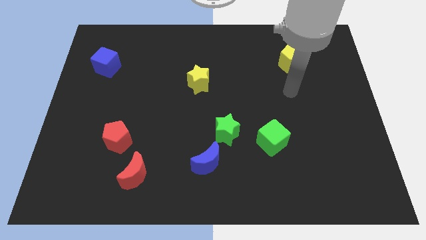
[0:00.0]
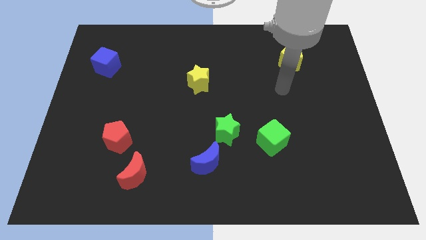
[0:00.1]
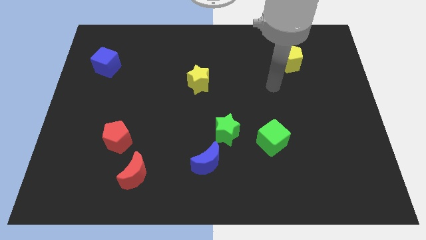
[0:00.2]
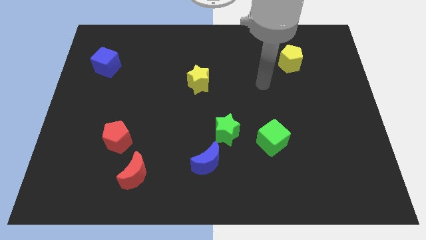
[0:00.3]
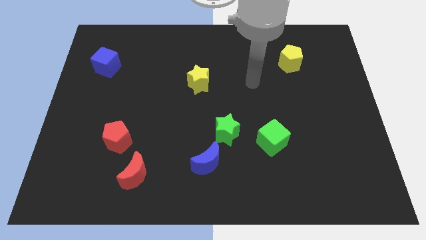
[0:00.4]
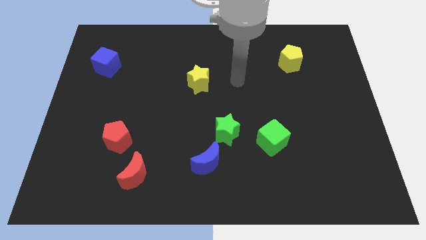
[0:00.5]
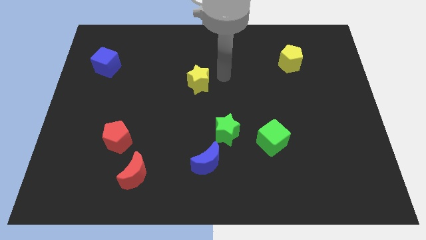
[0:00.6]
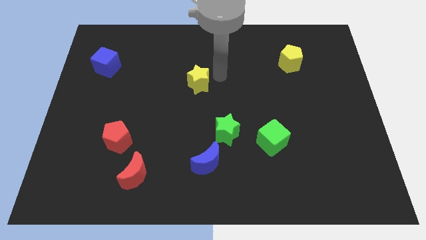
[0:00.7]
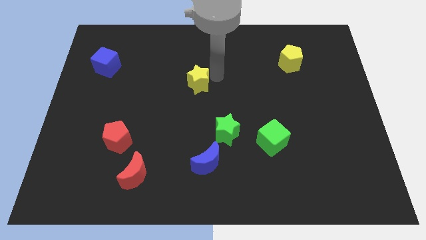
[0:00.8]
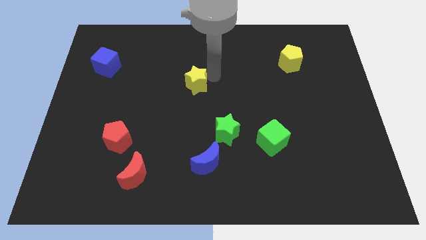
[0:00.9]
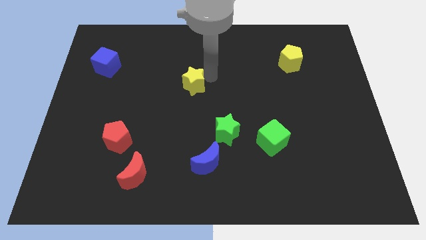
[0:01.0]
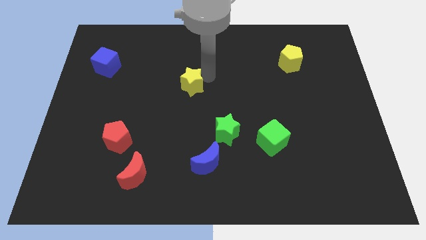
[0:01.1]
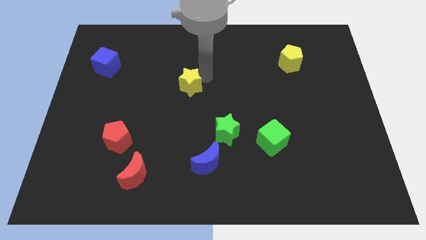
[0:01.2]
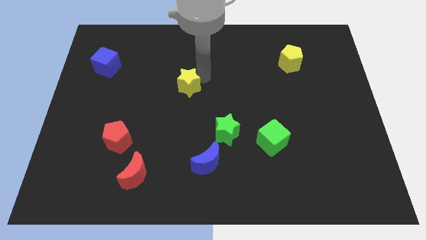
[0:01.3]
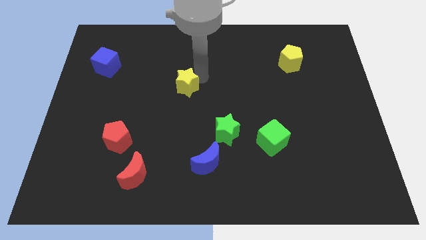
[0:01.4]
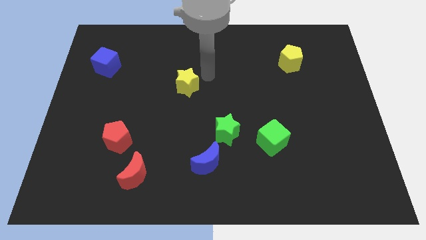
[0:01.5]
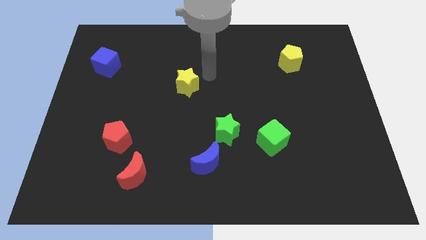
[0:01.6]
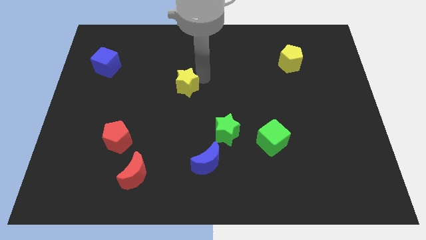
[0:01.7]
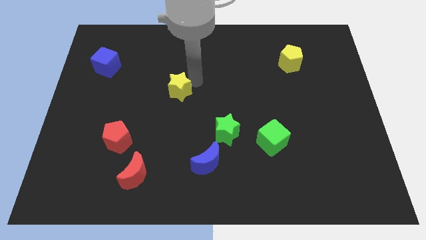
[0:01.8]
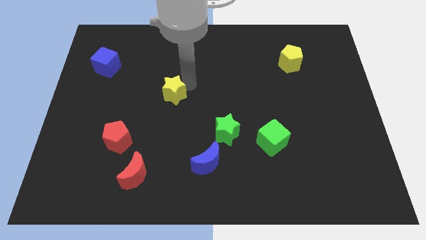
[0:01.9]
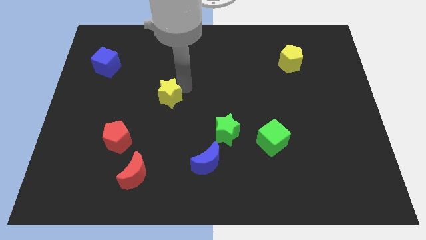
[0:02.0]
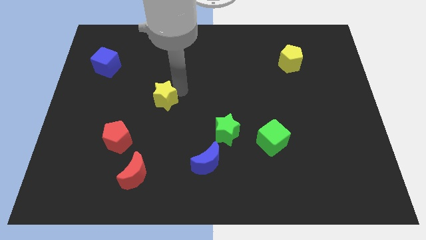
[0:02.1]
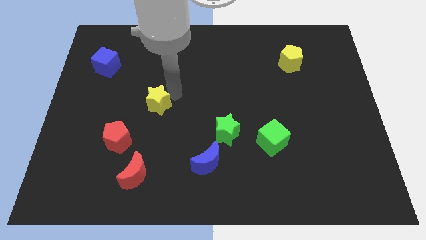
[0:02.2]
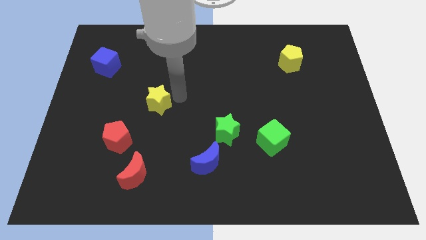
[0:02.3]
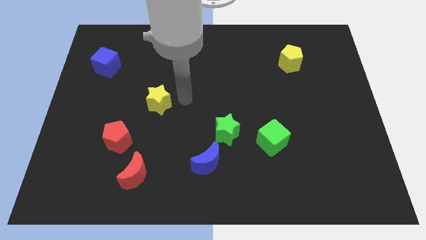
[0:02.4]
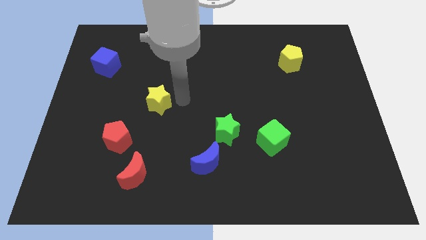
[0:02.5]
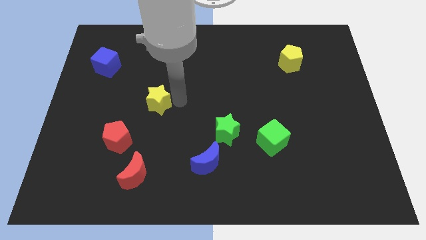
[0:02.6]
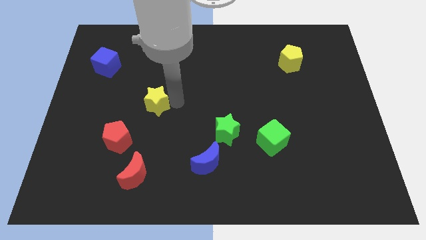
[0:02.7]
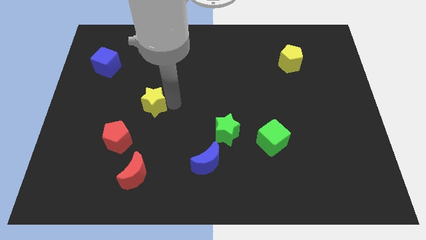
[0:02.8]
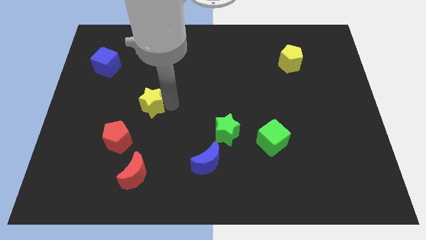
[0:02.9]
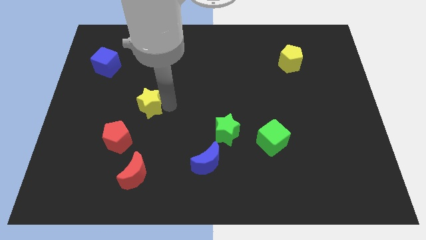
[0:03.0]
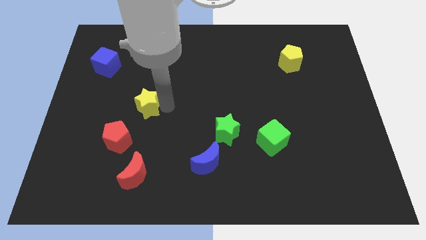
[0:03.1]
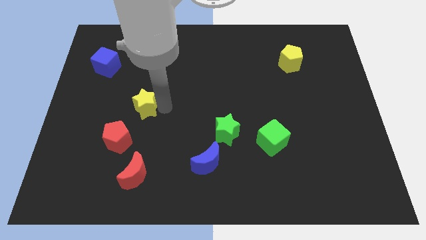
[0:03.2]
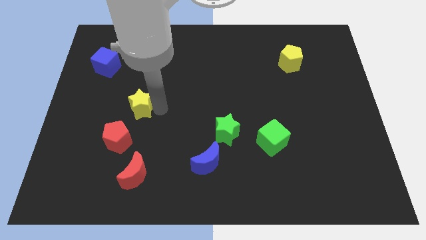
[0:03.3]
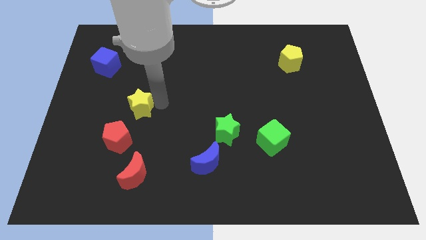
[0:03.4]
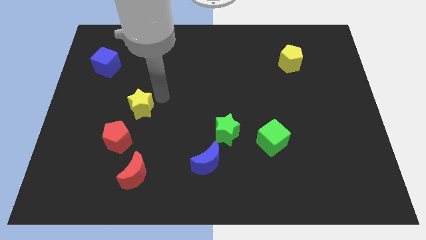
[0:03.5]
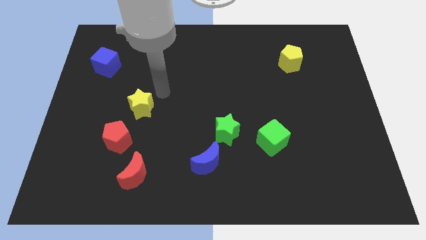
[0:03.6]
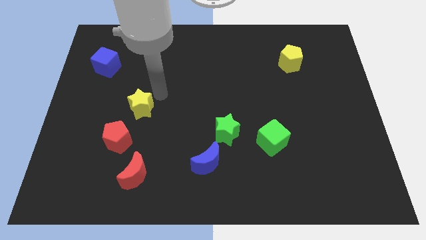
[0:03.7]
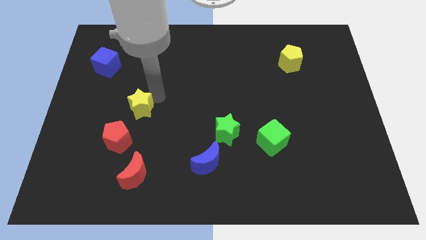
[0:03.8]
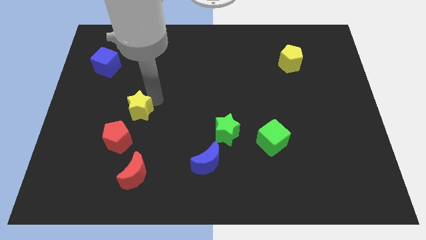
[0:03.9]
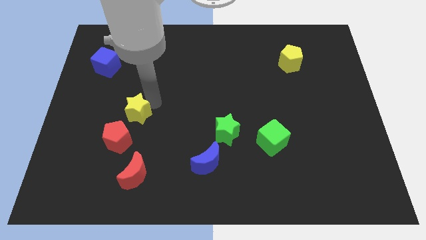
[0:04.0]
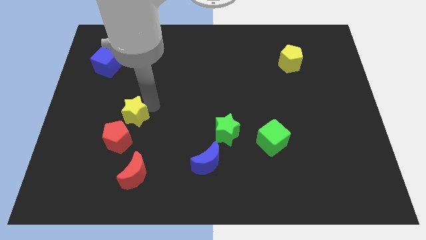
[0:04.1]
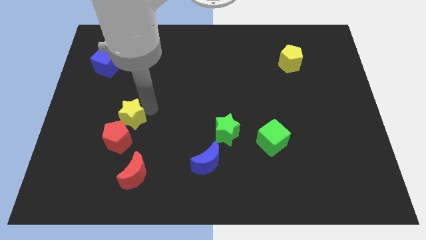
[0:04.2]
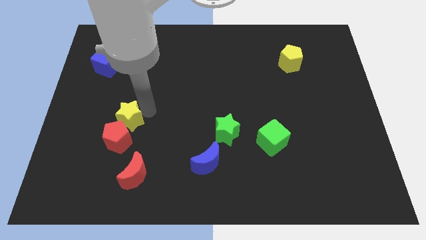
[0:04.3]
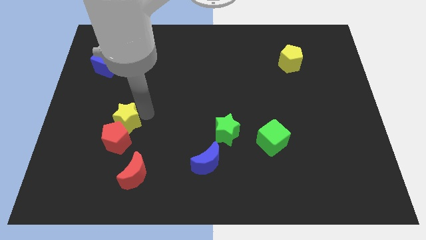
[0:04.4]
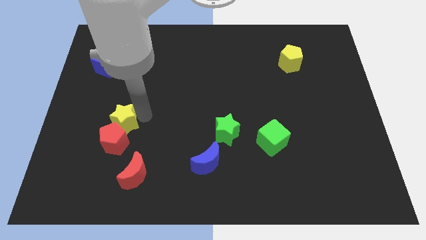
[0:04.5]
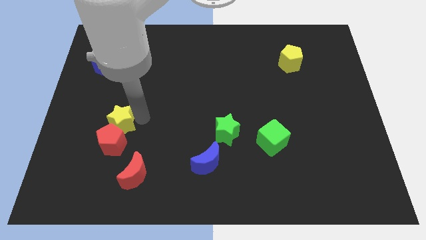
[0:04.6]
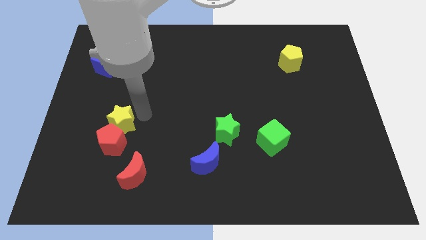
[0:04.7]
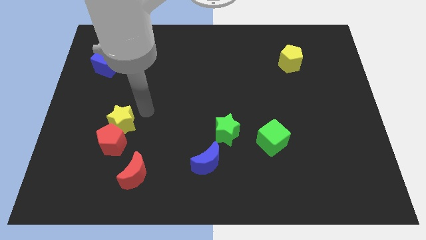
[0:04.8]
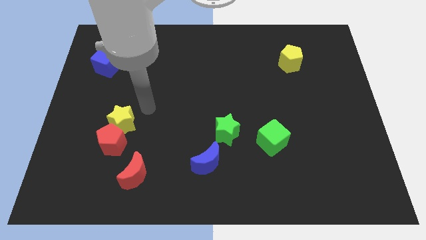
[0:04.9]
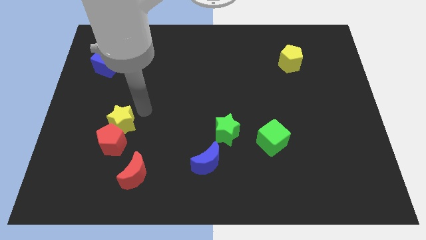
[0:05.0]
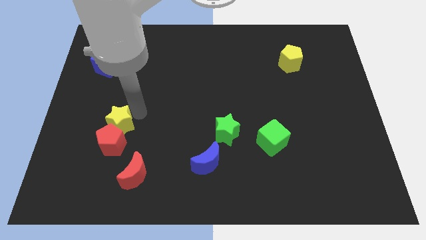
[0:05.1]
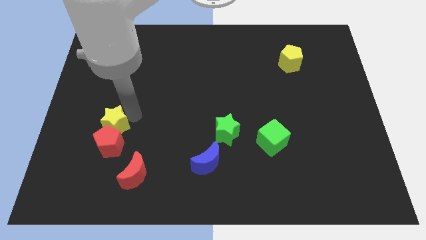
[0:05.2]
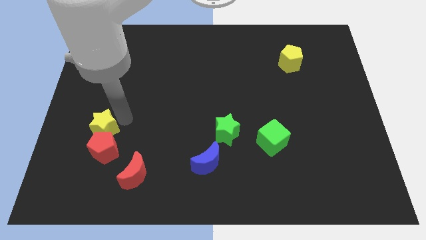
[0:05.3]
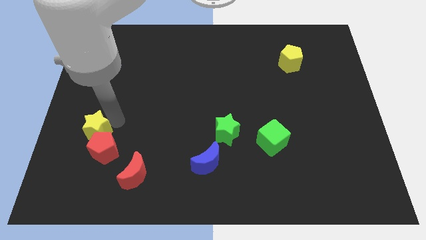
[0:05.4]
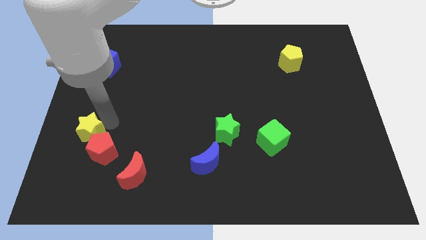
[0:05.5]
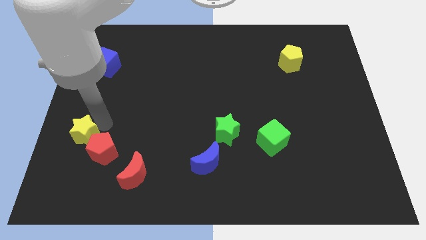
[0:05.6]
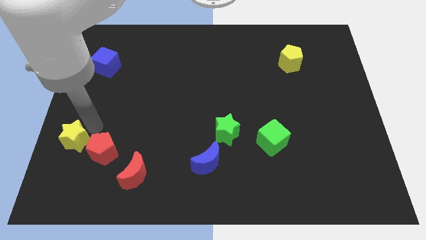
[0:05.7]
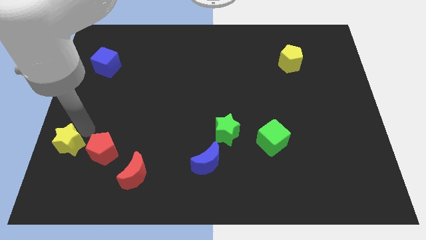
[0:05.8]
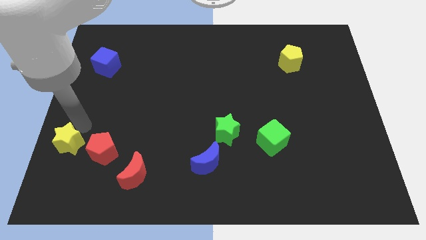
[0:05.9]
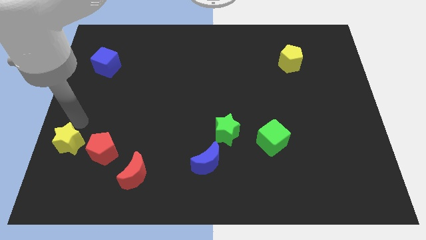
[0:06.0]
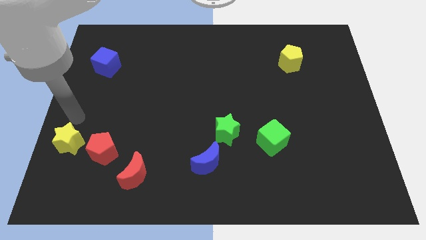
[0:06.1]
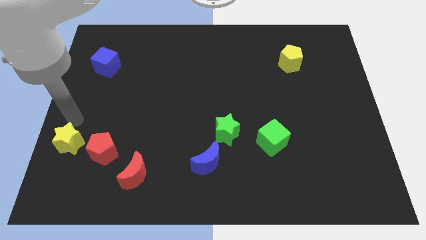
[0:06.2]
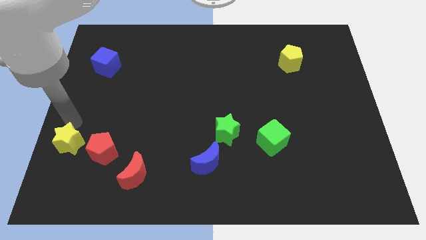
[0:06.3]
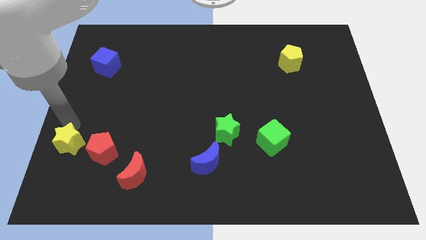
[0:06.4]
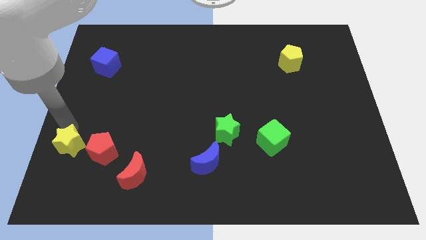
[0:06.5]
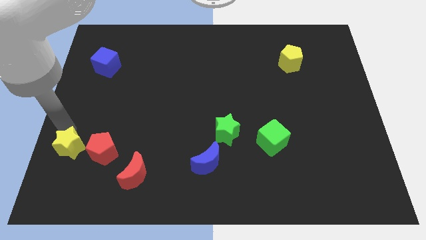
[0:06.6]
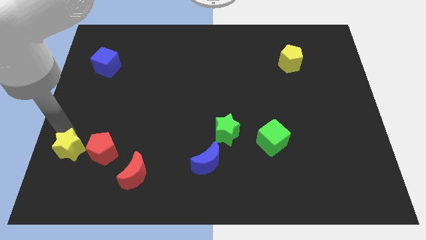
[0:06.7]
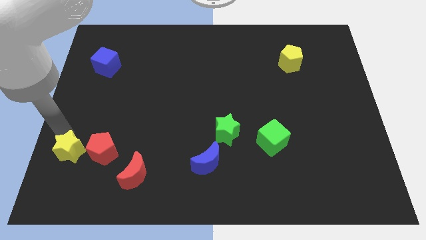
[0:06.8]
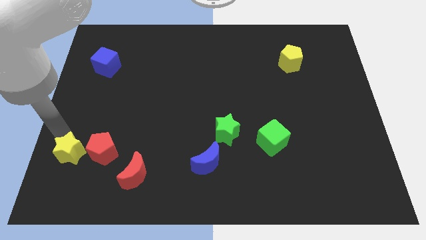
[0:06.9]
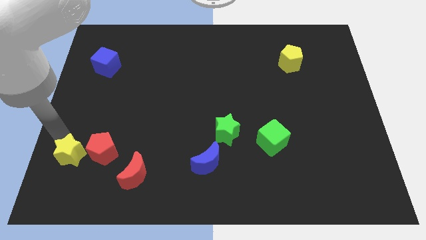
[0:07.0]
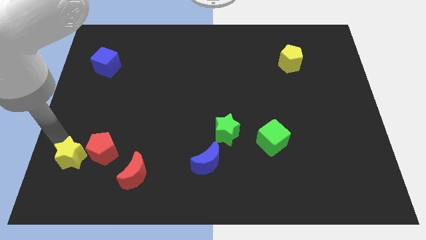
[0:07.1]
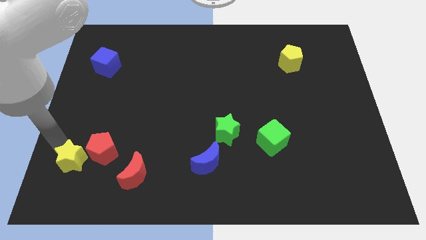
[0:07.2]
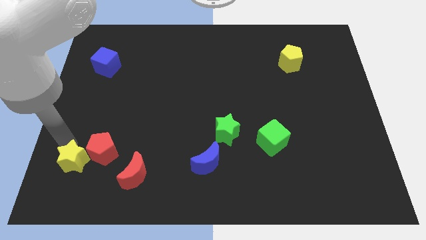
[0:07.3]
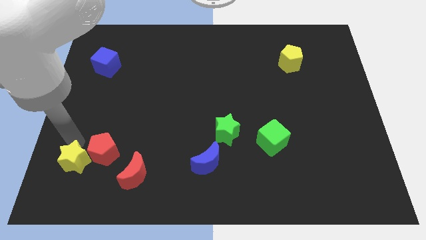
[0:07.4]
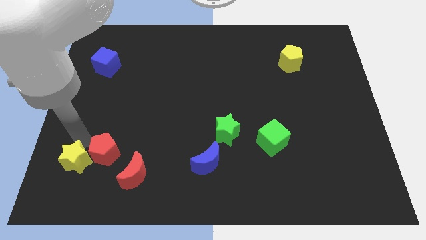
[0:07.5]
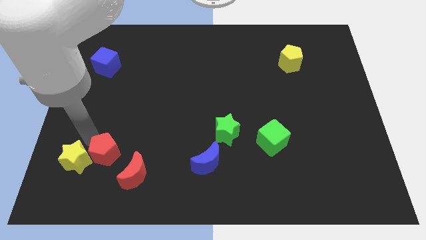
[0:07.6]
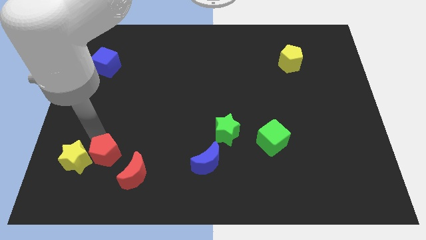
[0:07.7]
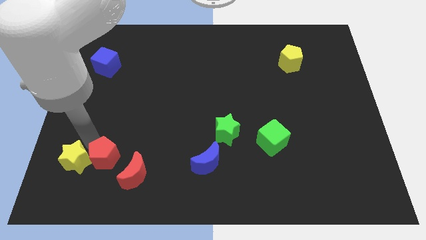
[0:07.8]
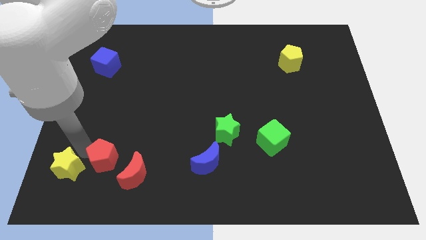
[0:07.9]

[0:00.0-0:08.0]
push the yellow star to the bottom left corner
